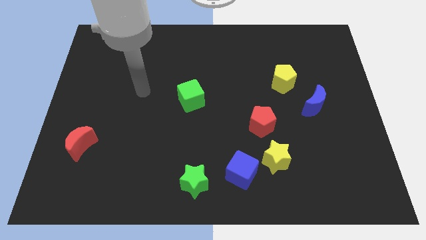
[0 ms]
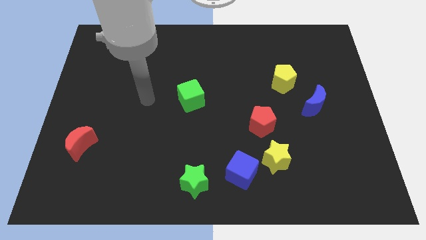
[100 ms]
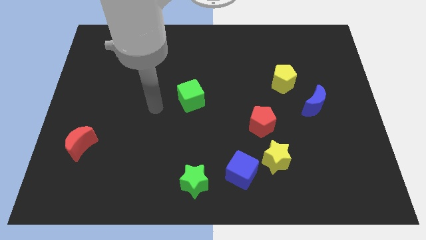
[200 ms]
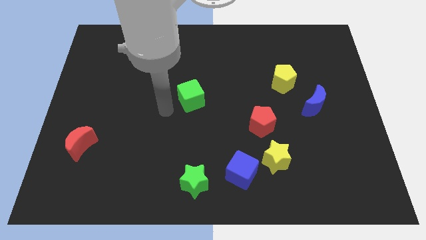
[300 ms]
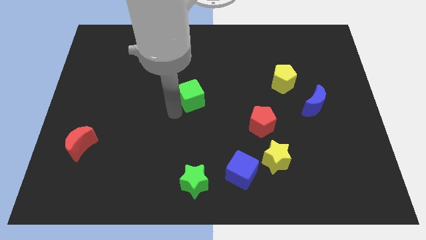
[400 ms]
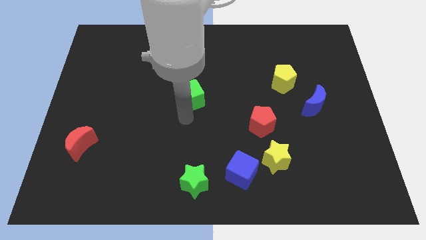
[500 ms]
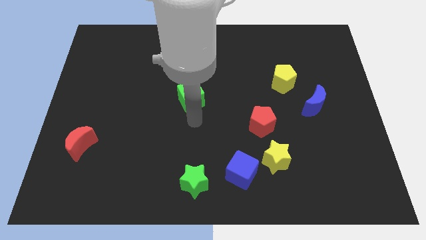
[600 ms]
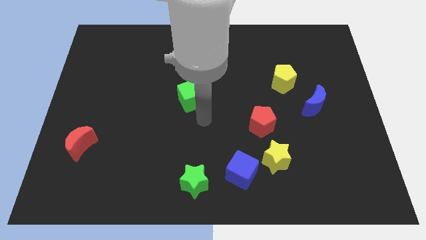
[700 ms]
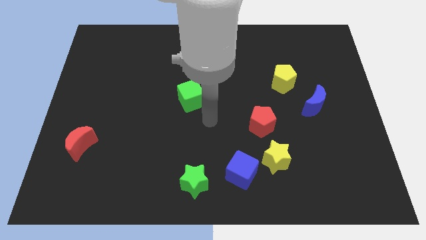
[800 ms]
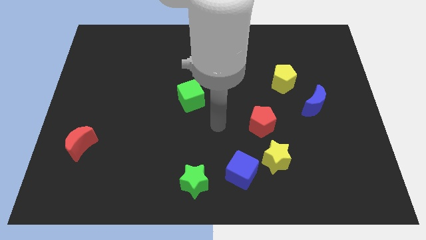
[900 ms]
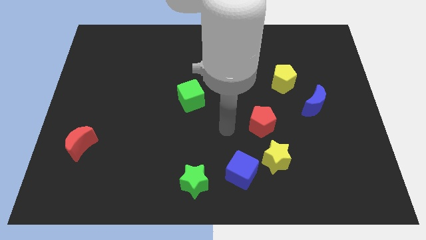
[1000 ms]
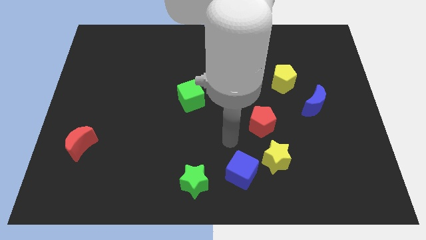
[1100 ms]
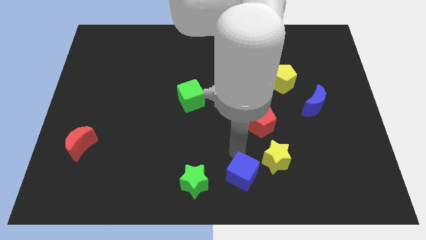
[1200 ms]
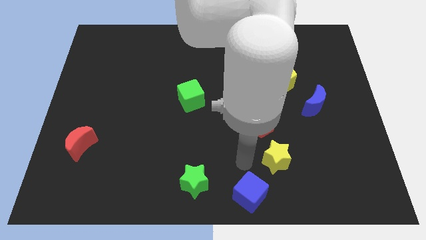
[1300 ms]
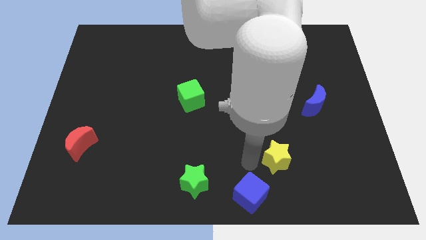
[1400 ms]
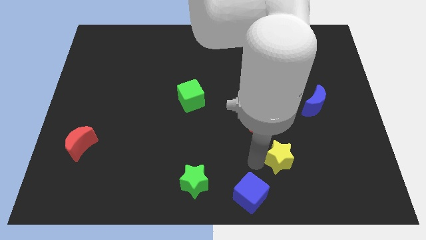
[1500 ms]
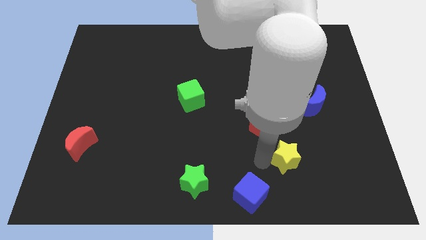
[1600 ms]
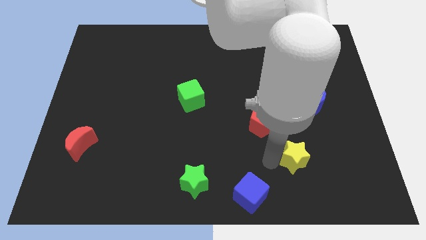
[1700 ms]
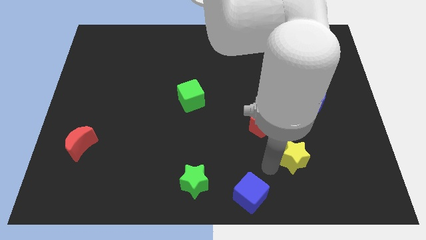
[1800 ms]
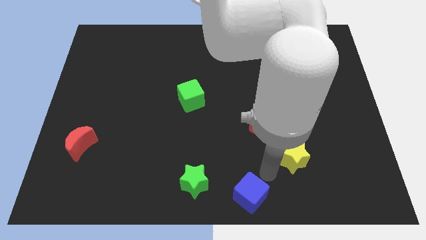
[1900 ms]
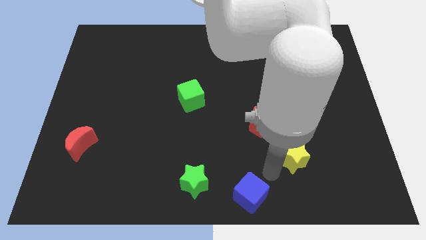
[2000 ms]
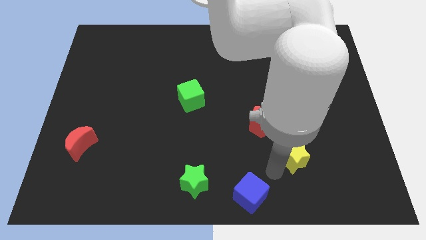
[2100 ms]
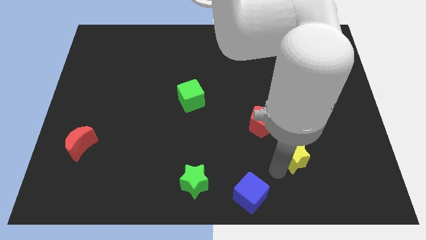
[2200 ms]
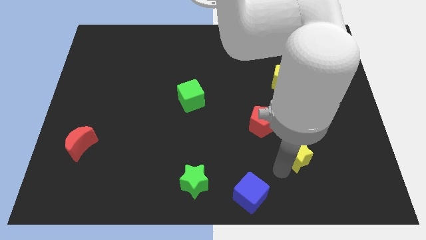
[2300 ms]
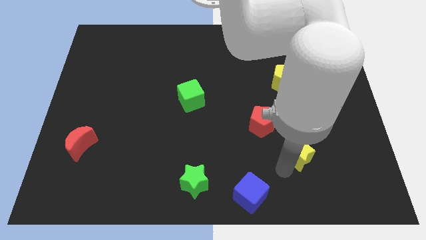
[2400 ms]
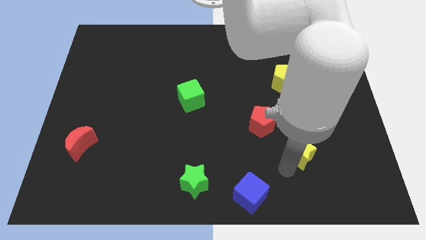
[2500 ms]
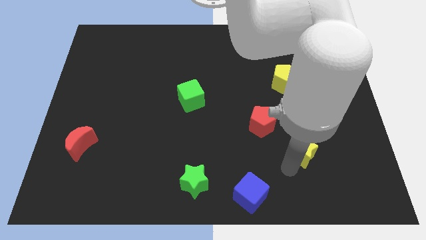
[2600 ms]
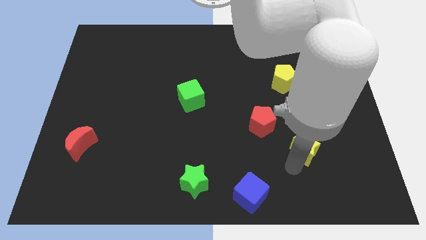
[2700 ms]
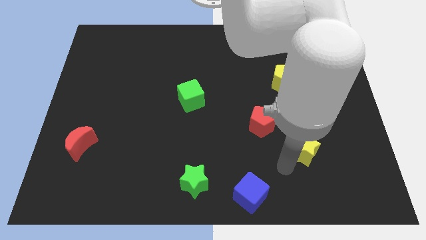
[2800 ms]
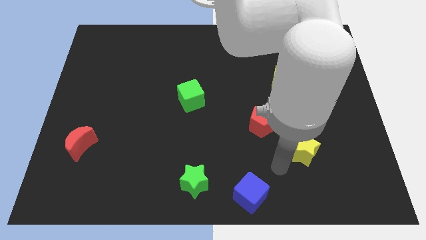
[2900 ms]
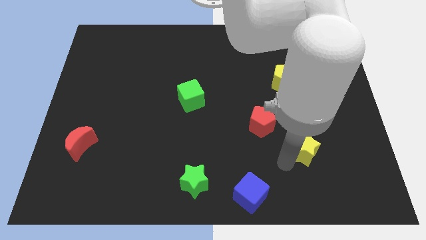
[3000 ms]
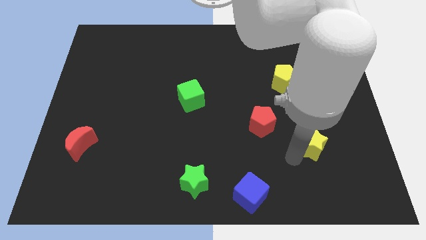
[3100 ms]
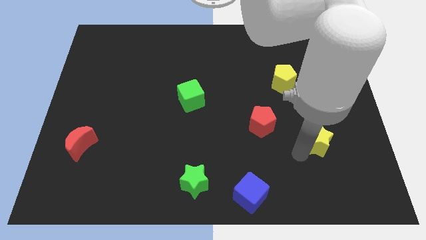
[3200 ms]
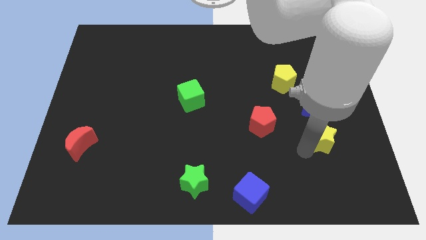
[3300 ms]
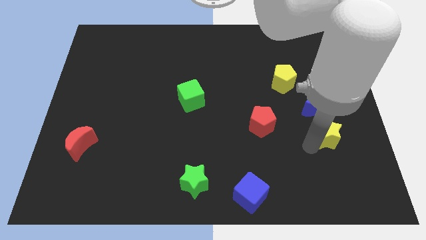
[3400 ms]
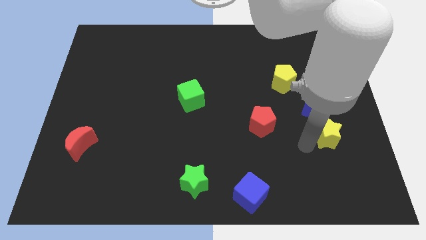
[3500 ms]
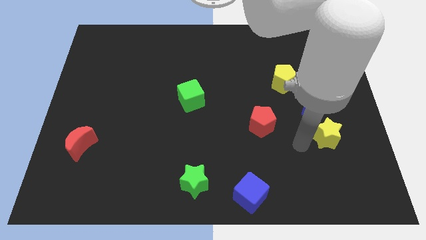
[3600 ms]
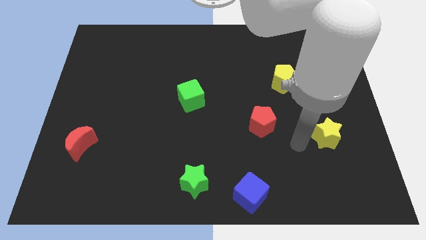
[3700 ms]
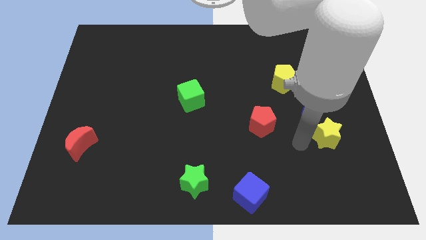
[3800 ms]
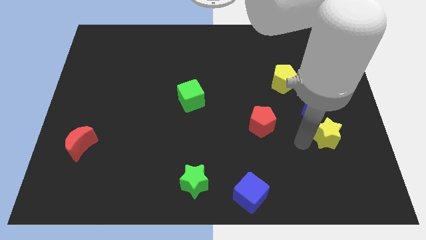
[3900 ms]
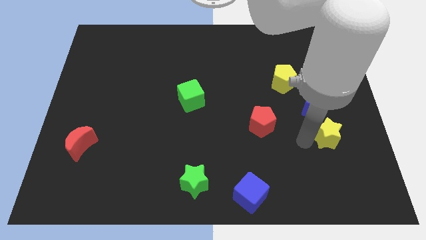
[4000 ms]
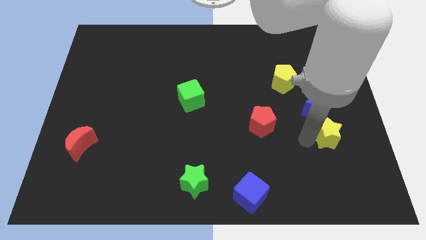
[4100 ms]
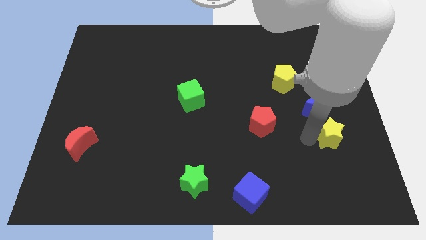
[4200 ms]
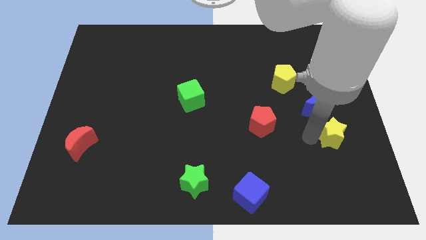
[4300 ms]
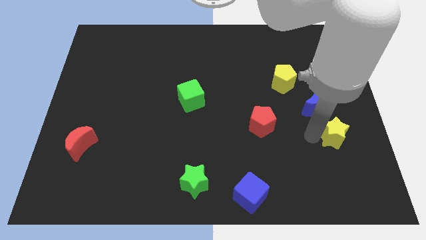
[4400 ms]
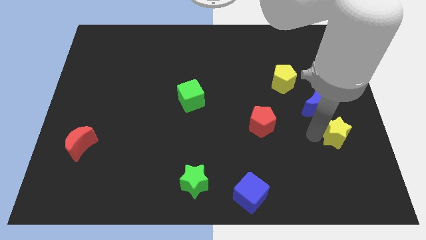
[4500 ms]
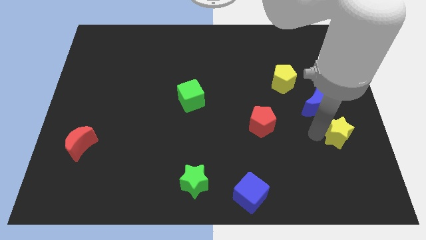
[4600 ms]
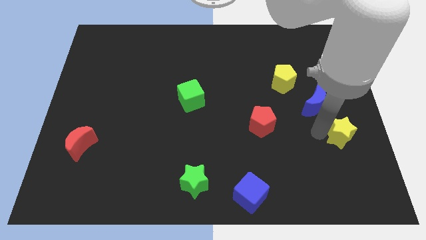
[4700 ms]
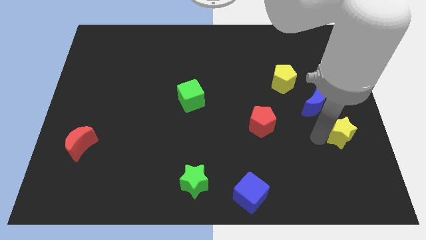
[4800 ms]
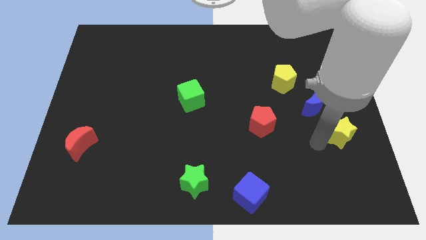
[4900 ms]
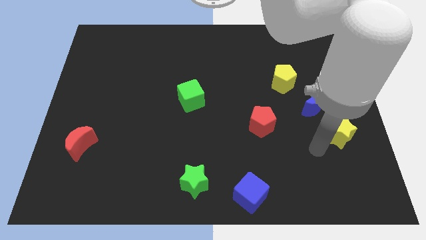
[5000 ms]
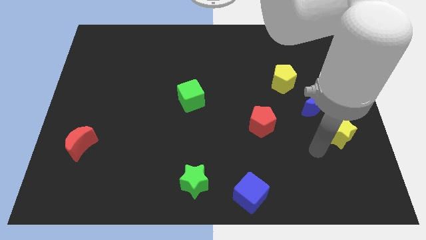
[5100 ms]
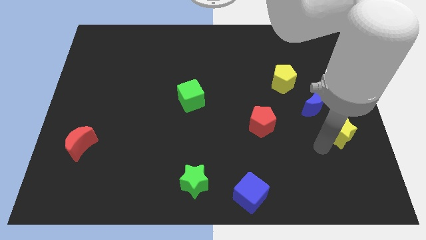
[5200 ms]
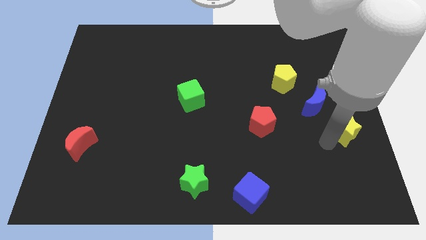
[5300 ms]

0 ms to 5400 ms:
put the yellow star to the center right
